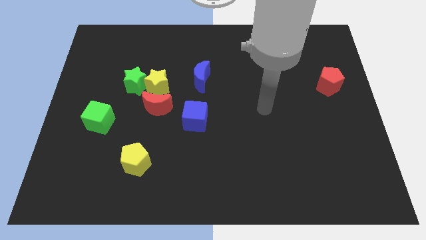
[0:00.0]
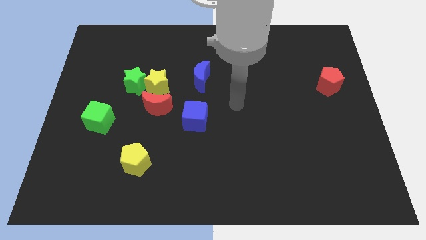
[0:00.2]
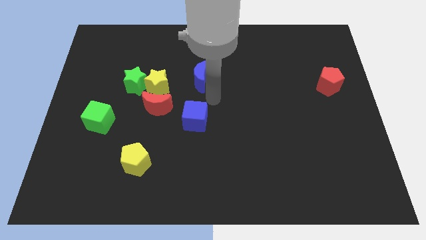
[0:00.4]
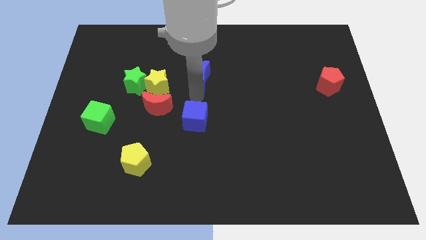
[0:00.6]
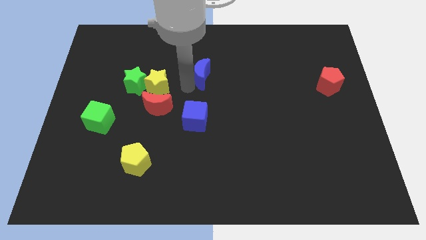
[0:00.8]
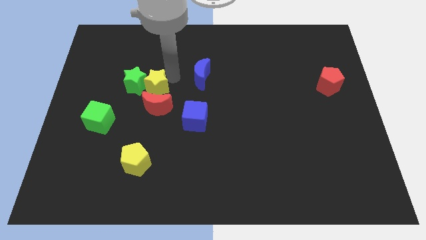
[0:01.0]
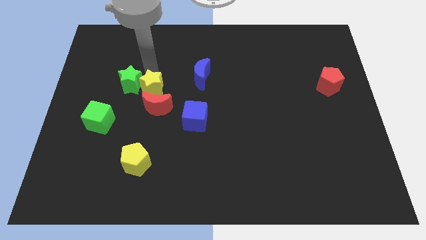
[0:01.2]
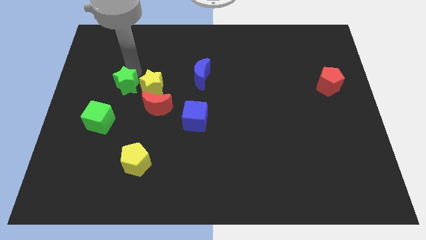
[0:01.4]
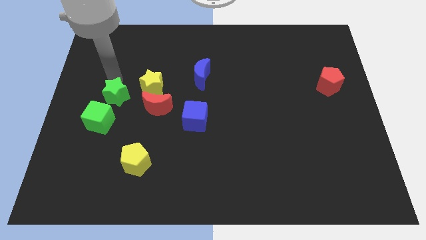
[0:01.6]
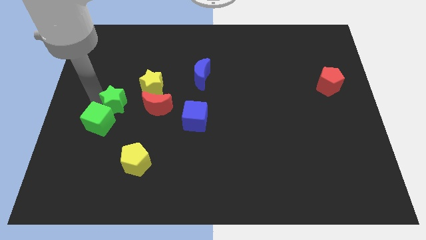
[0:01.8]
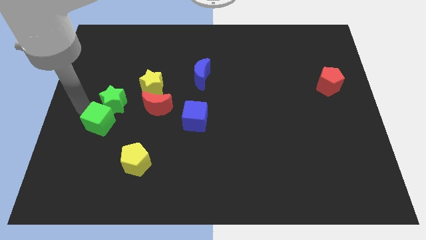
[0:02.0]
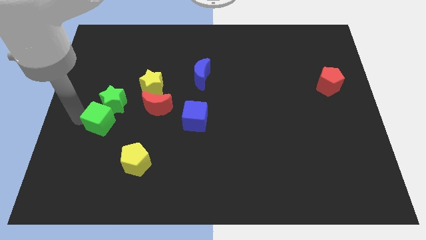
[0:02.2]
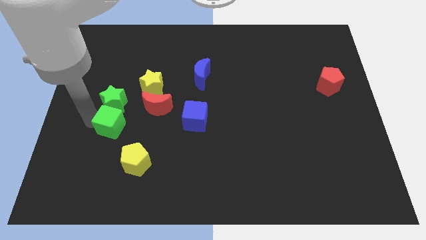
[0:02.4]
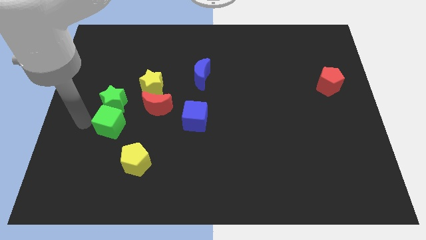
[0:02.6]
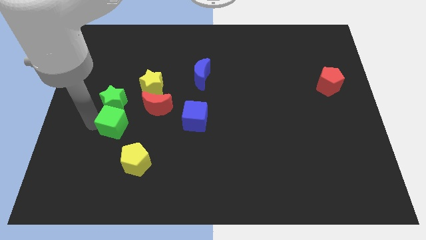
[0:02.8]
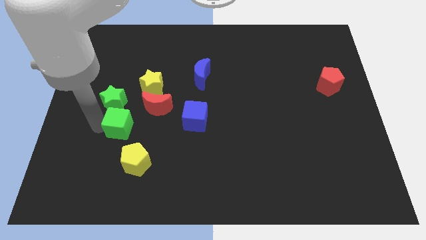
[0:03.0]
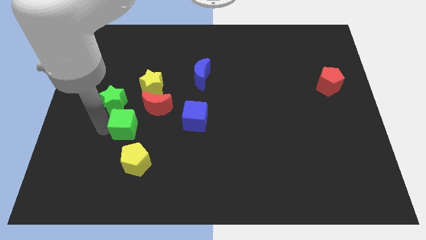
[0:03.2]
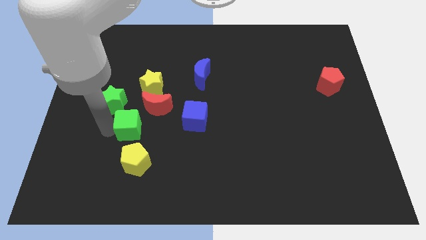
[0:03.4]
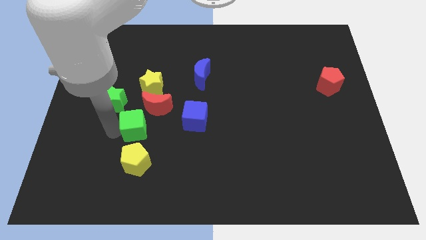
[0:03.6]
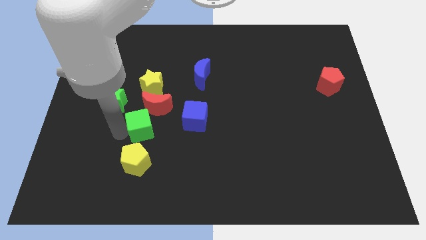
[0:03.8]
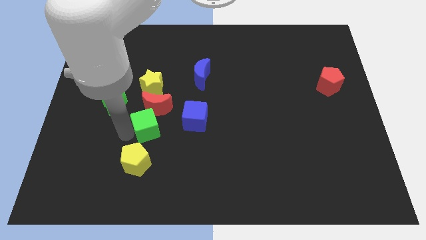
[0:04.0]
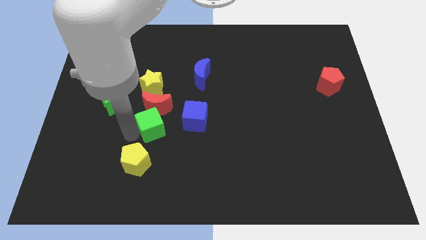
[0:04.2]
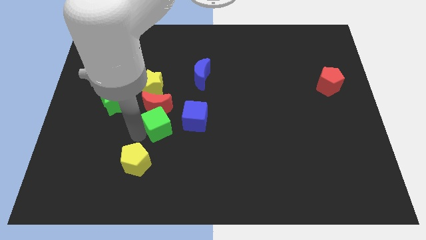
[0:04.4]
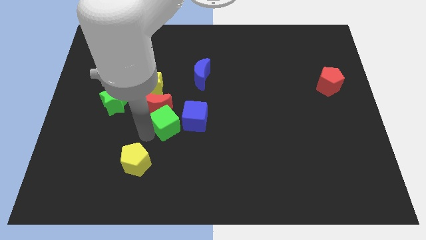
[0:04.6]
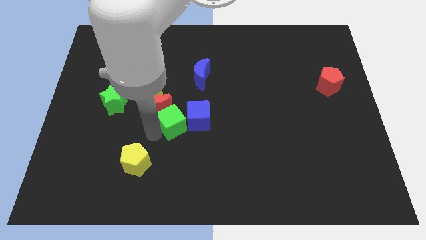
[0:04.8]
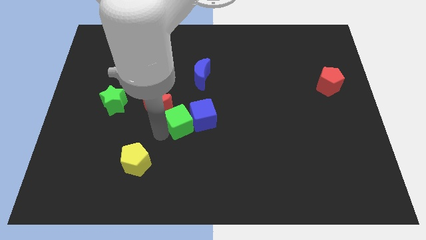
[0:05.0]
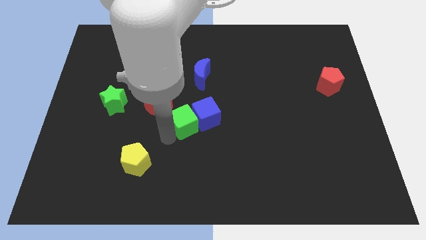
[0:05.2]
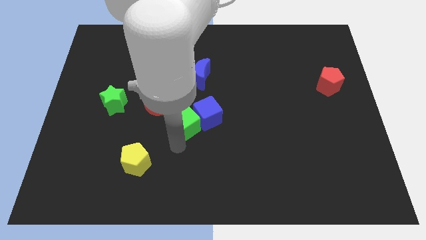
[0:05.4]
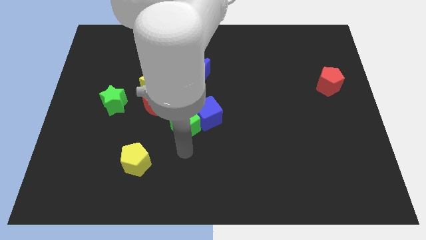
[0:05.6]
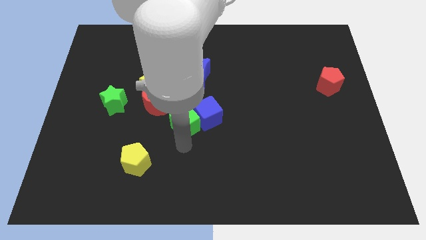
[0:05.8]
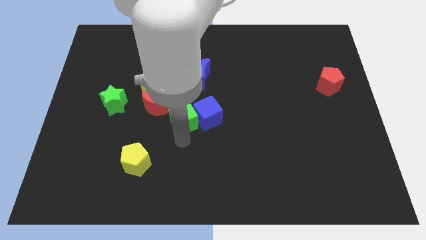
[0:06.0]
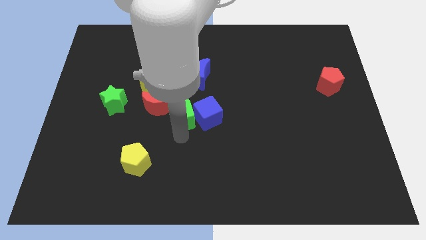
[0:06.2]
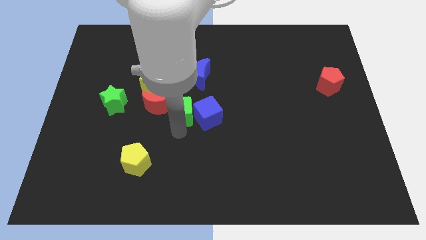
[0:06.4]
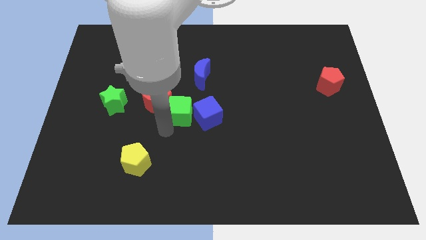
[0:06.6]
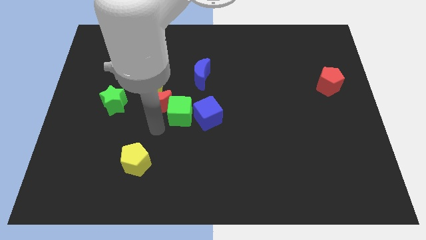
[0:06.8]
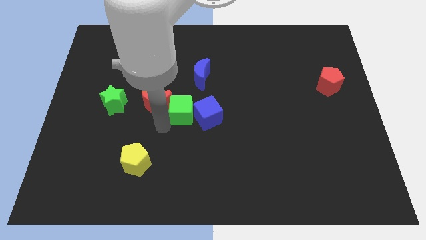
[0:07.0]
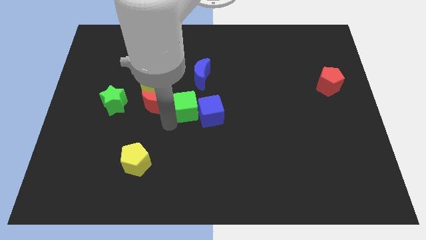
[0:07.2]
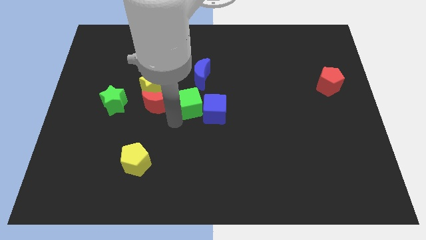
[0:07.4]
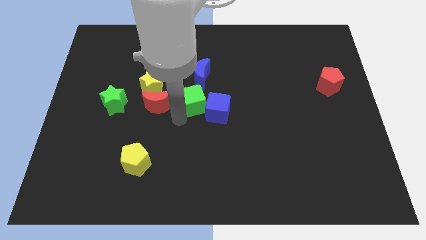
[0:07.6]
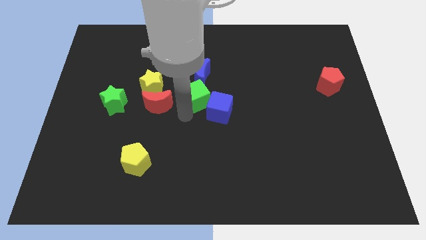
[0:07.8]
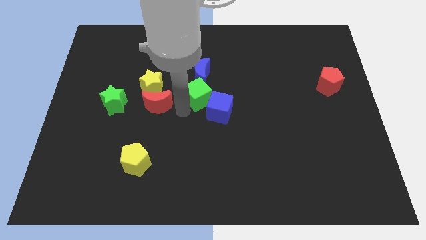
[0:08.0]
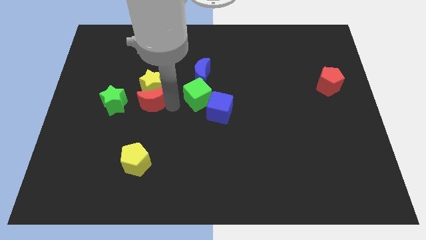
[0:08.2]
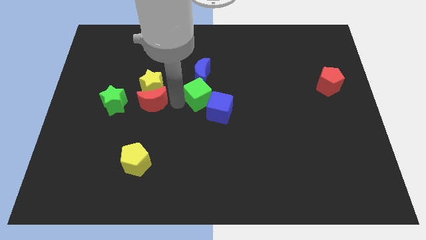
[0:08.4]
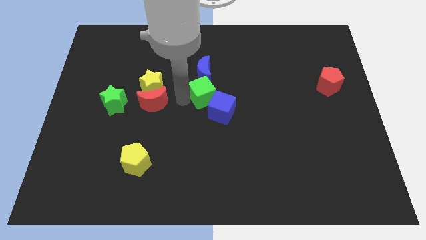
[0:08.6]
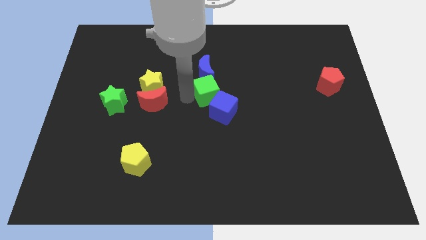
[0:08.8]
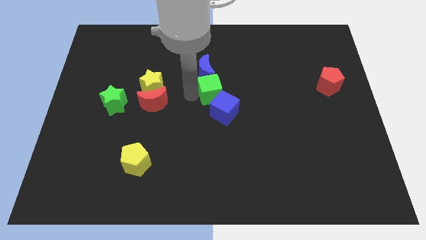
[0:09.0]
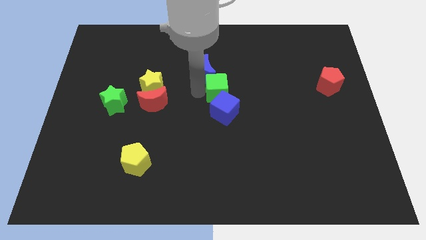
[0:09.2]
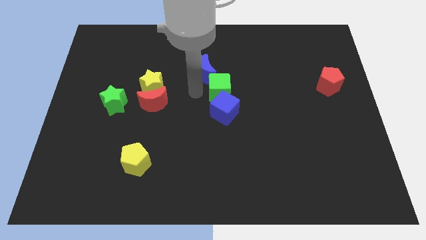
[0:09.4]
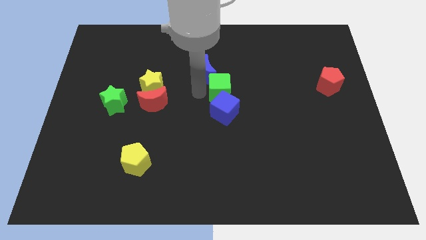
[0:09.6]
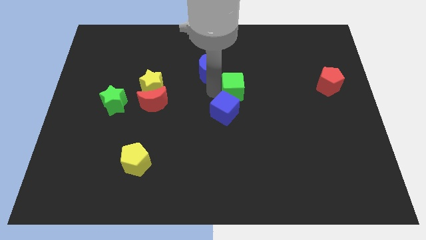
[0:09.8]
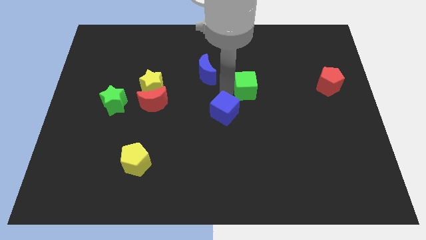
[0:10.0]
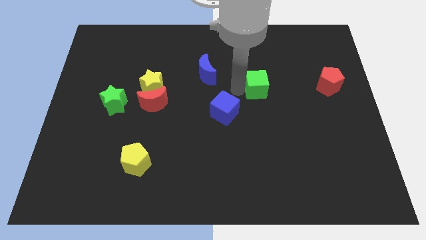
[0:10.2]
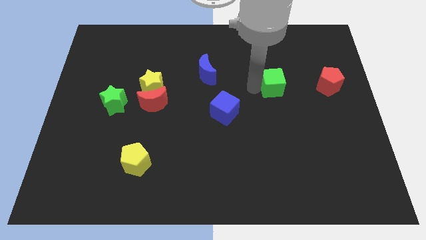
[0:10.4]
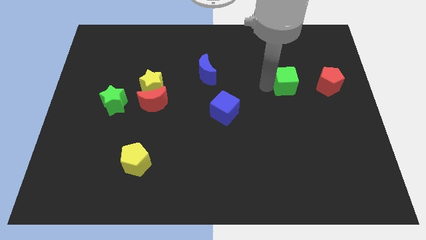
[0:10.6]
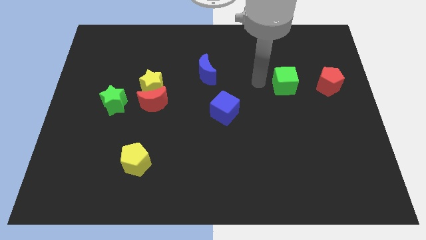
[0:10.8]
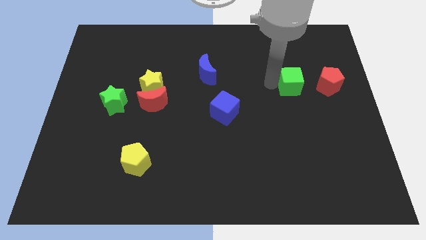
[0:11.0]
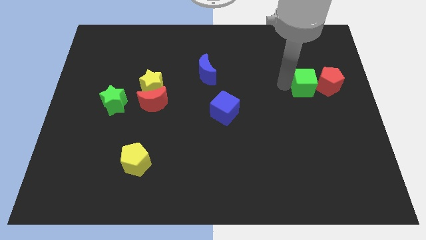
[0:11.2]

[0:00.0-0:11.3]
slide the green cube next to the red pentagon

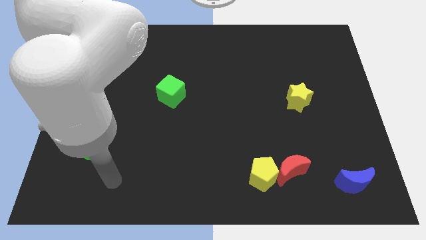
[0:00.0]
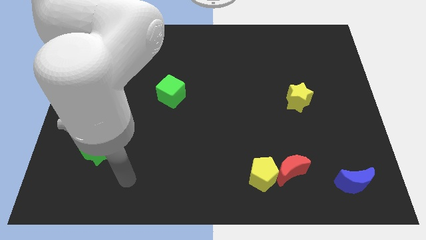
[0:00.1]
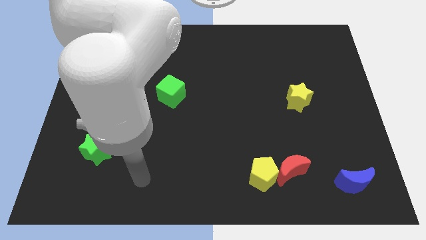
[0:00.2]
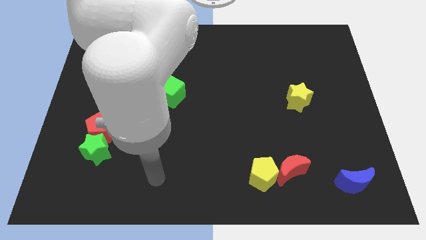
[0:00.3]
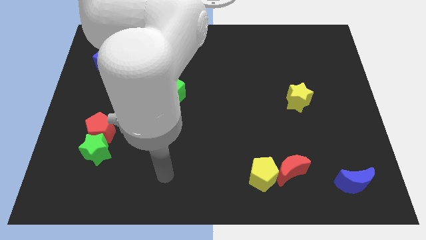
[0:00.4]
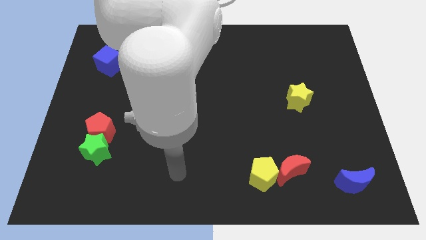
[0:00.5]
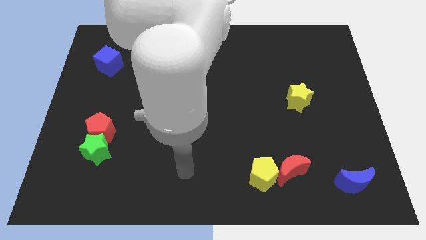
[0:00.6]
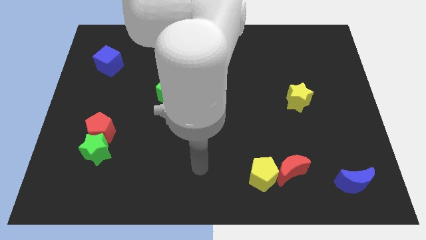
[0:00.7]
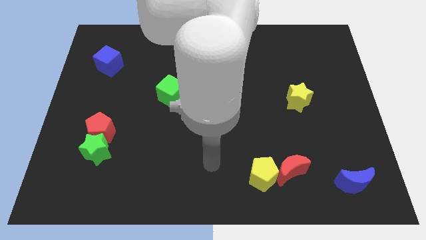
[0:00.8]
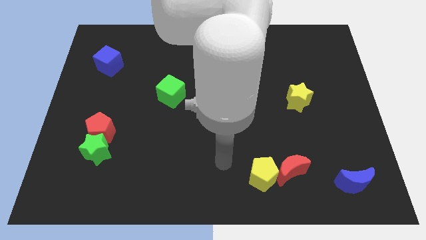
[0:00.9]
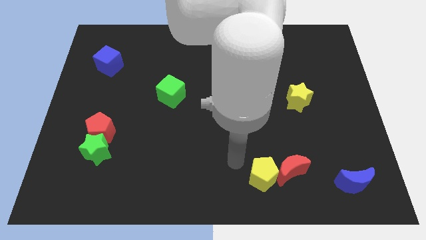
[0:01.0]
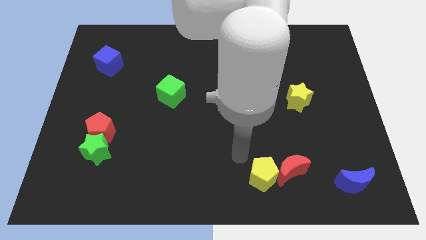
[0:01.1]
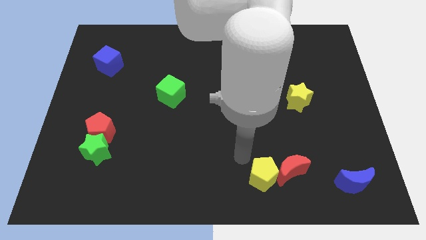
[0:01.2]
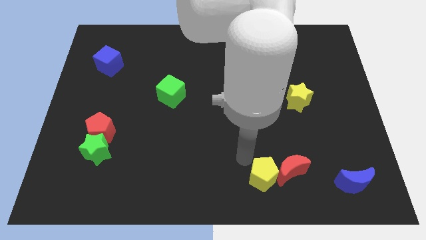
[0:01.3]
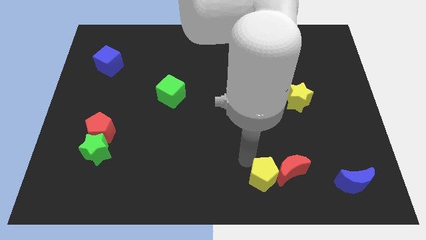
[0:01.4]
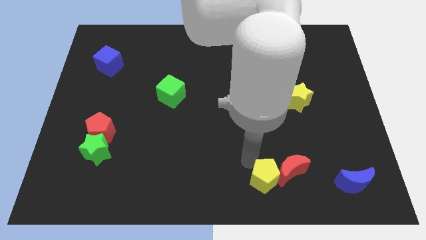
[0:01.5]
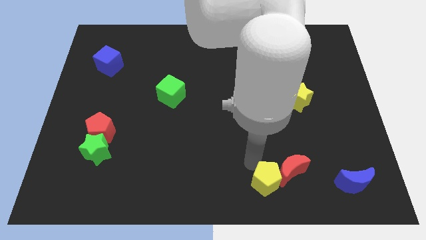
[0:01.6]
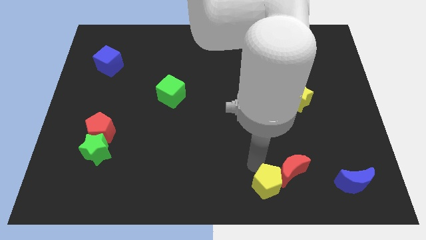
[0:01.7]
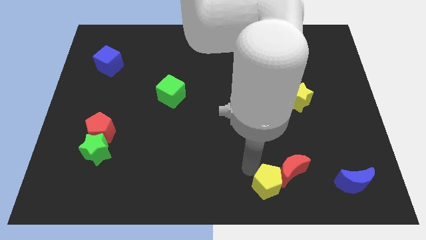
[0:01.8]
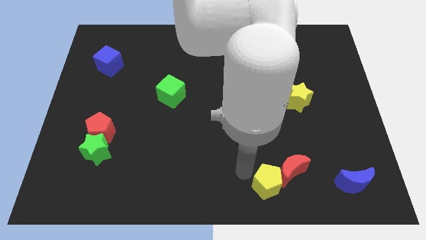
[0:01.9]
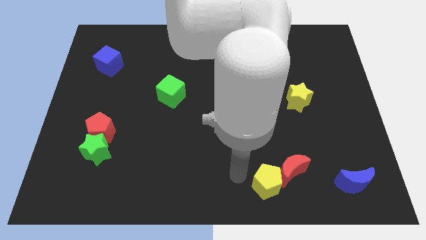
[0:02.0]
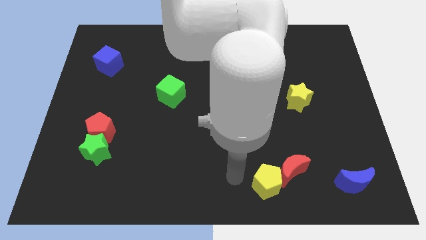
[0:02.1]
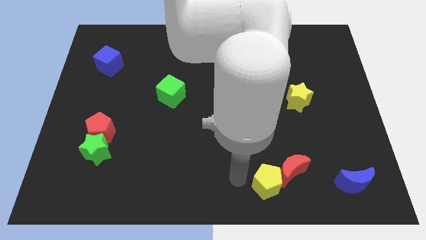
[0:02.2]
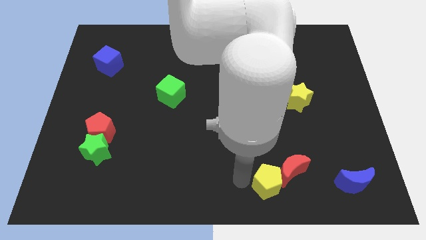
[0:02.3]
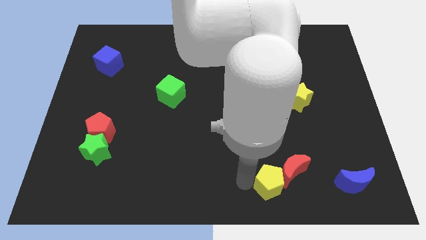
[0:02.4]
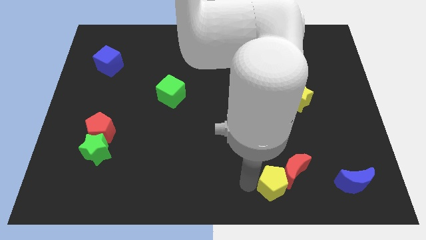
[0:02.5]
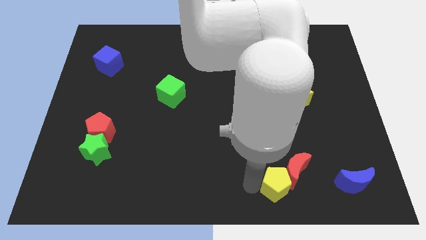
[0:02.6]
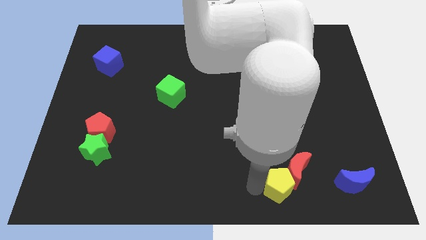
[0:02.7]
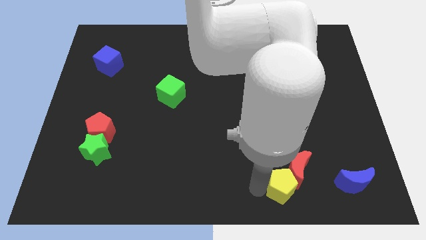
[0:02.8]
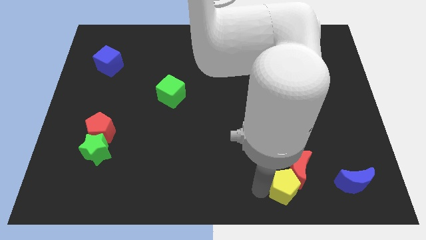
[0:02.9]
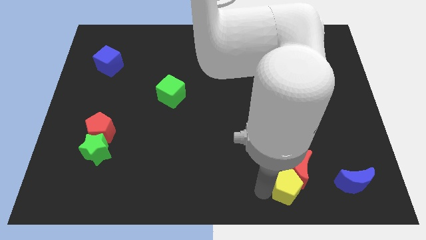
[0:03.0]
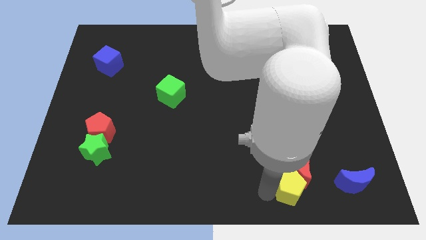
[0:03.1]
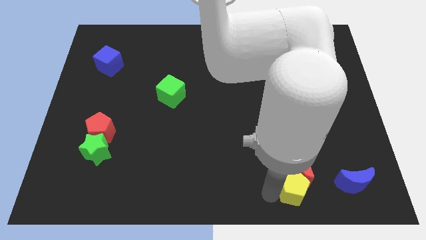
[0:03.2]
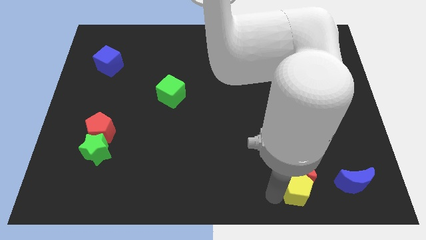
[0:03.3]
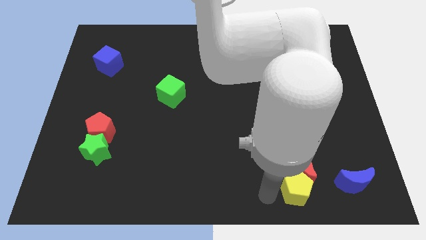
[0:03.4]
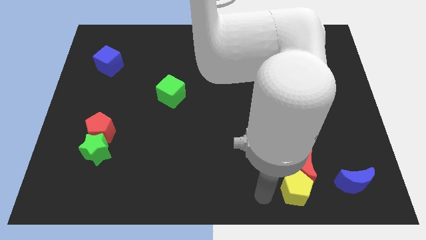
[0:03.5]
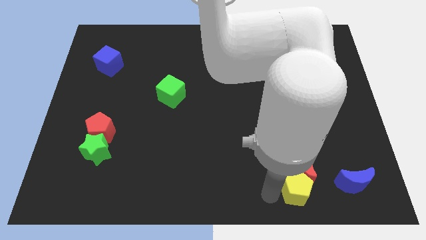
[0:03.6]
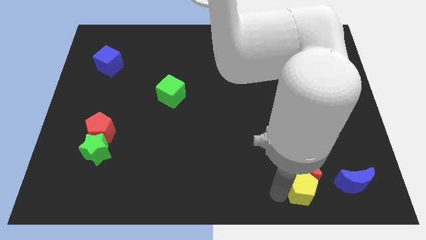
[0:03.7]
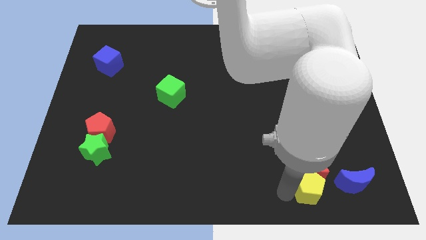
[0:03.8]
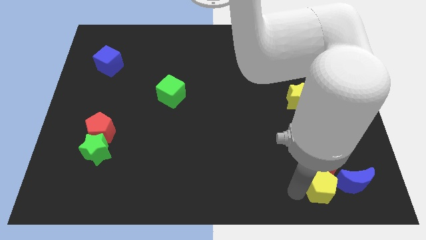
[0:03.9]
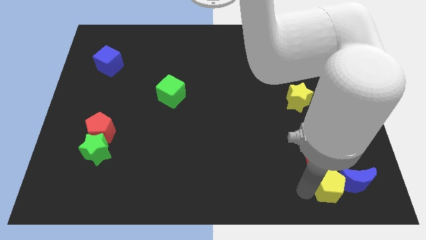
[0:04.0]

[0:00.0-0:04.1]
move the yellow pentagon close to the blue moon
